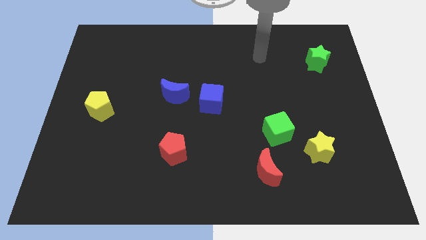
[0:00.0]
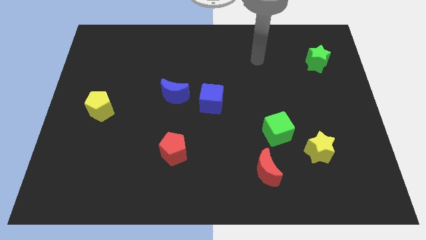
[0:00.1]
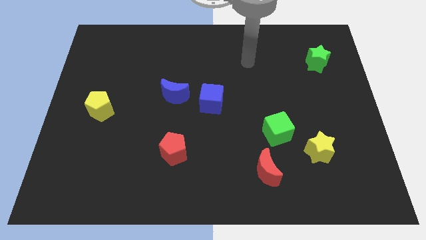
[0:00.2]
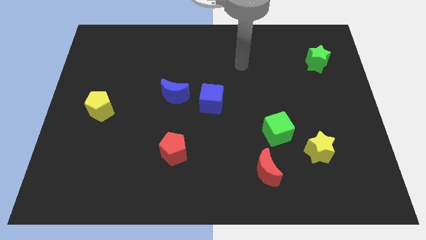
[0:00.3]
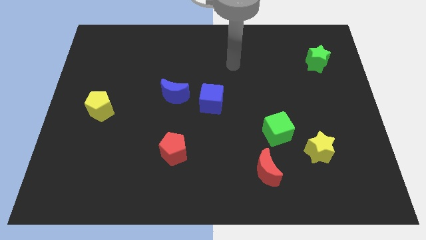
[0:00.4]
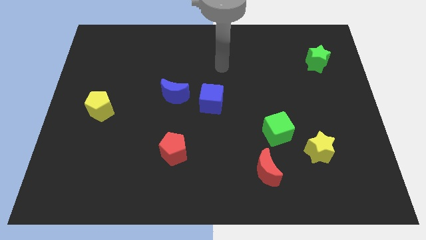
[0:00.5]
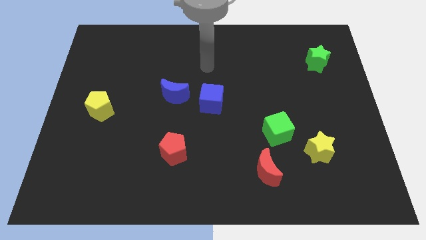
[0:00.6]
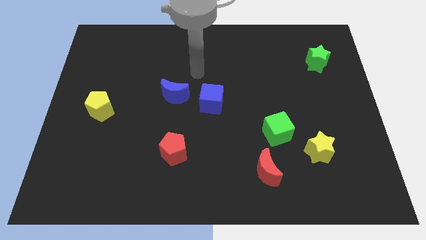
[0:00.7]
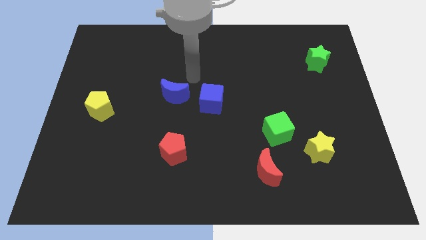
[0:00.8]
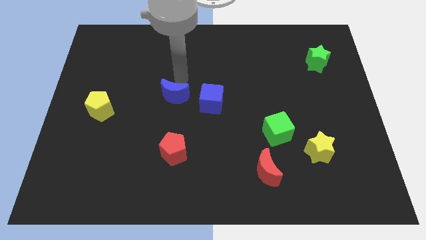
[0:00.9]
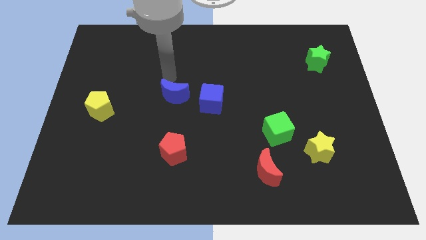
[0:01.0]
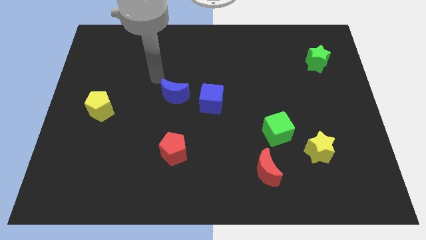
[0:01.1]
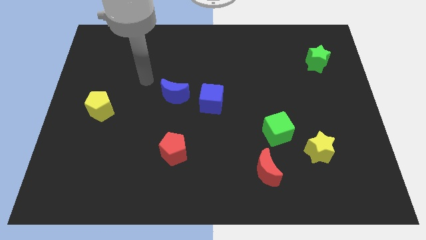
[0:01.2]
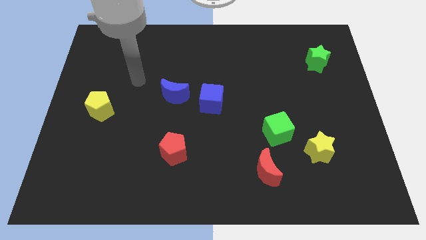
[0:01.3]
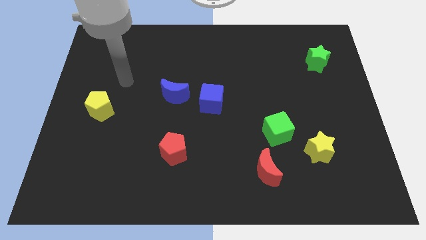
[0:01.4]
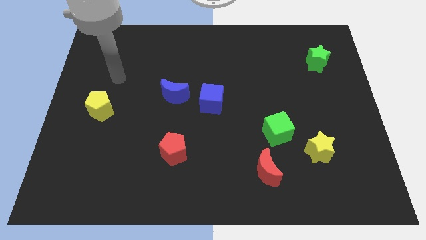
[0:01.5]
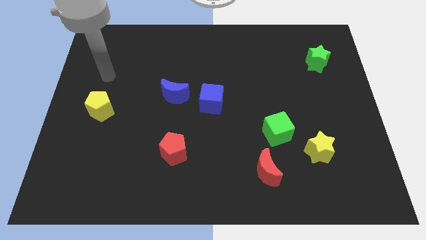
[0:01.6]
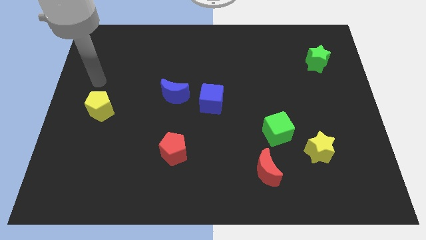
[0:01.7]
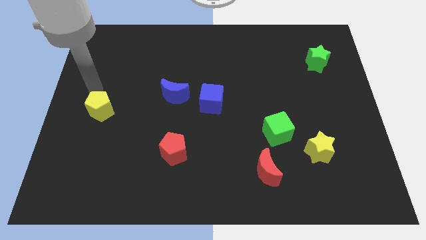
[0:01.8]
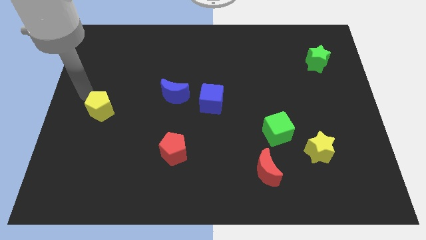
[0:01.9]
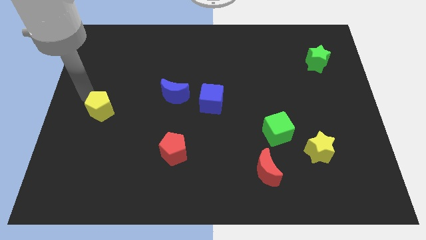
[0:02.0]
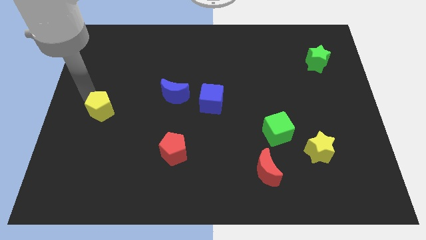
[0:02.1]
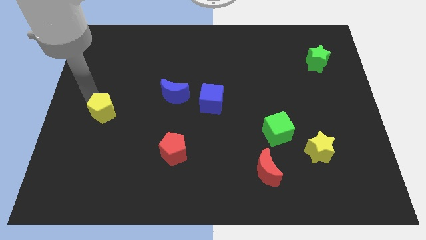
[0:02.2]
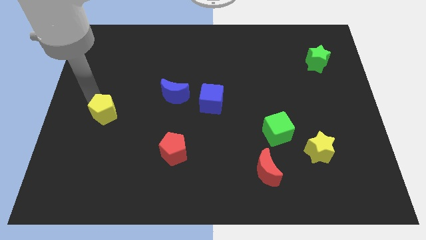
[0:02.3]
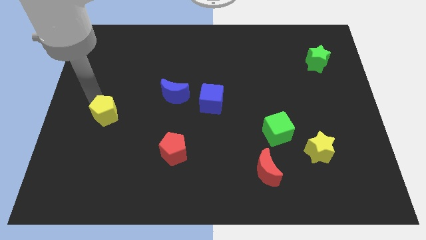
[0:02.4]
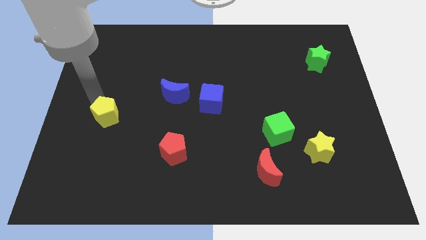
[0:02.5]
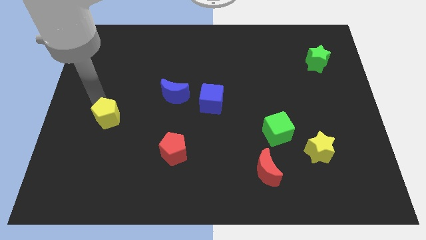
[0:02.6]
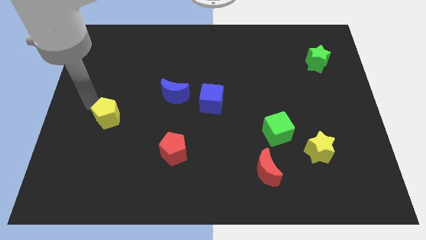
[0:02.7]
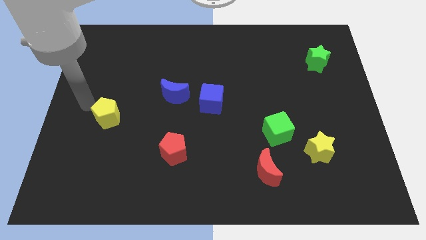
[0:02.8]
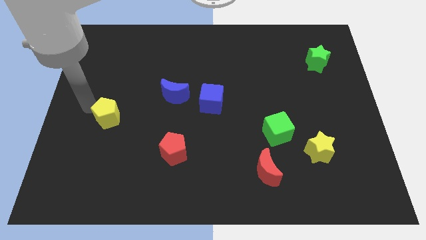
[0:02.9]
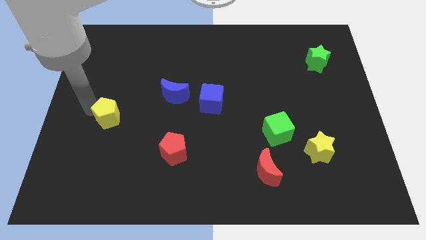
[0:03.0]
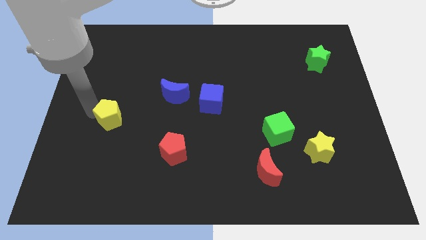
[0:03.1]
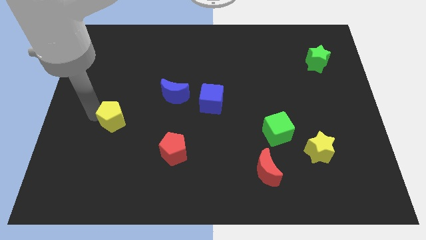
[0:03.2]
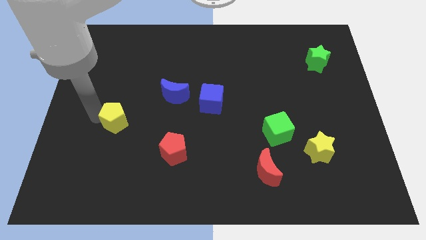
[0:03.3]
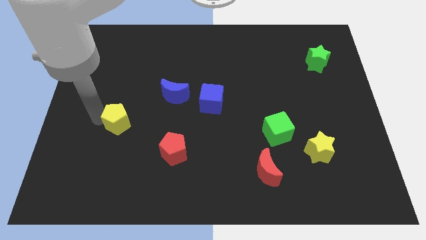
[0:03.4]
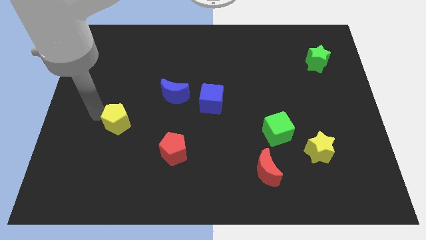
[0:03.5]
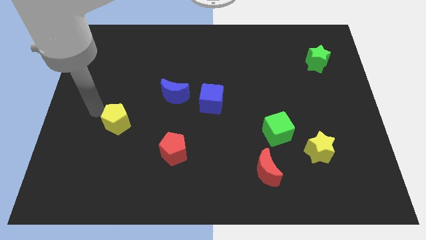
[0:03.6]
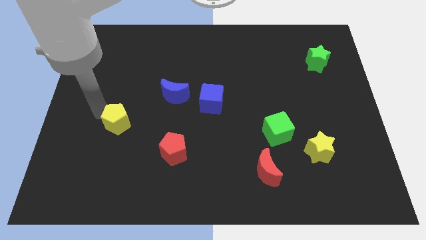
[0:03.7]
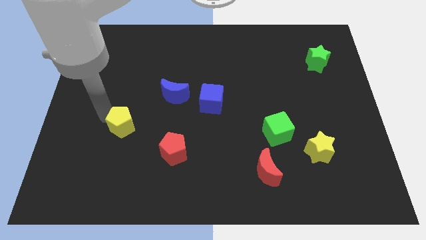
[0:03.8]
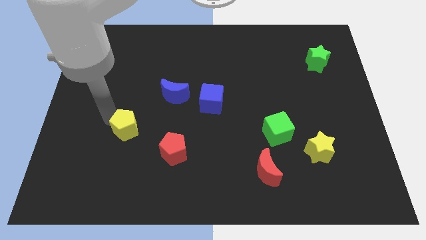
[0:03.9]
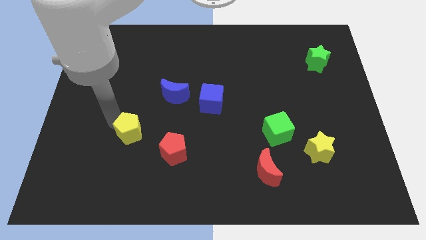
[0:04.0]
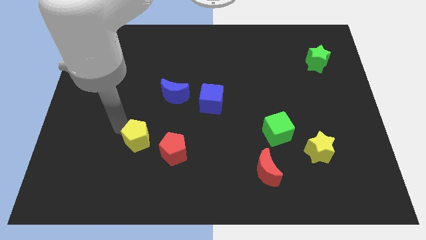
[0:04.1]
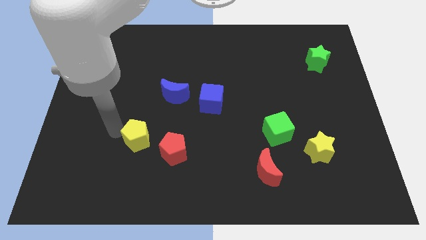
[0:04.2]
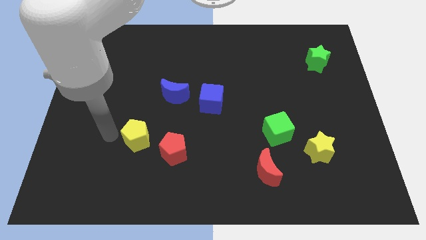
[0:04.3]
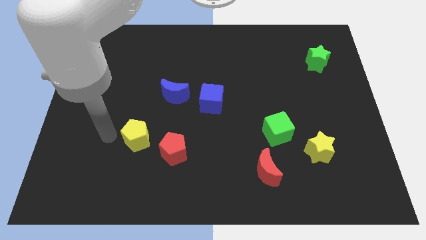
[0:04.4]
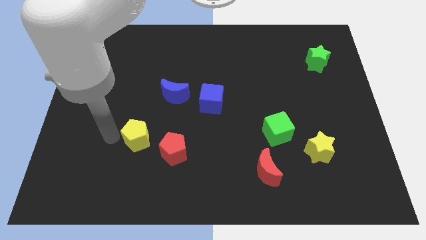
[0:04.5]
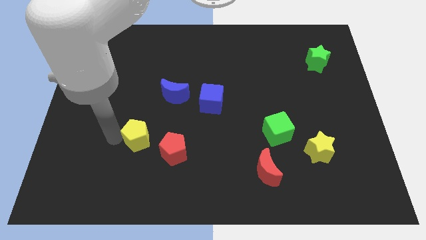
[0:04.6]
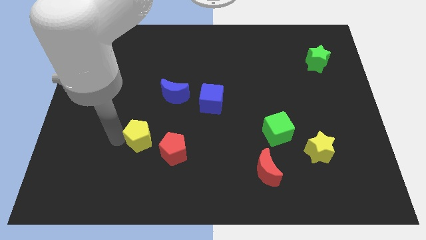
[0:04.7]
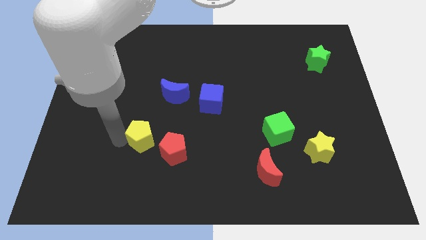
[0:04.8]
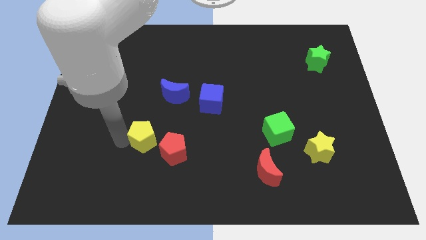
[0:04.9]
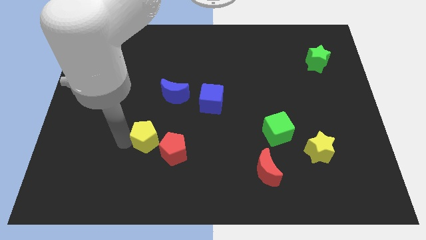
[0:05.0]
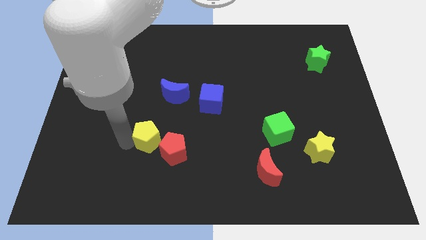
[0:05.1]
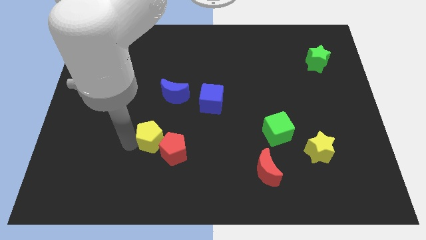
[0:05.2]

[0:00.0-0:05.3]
slide the yellow pentagon to the red pentagon

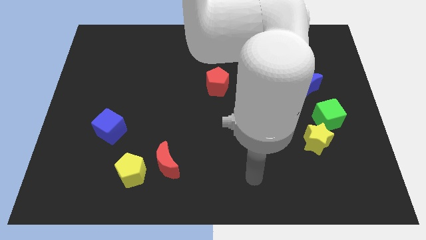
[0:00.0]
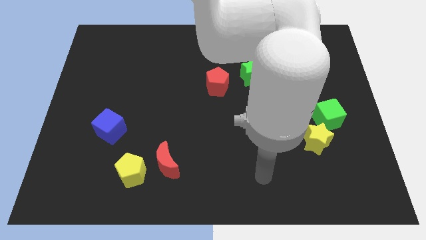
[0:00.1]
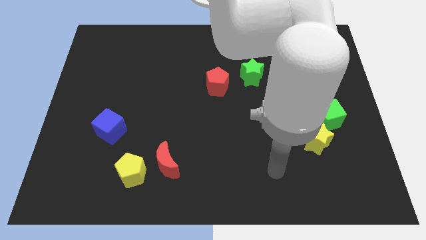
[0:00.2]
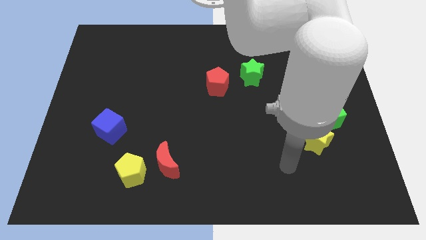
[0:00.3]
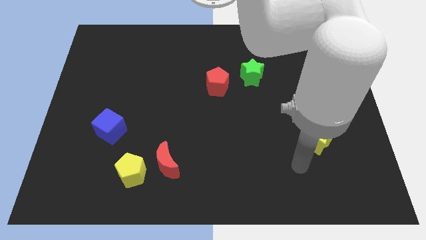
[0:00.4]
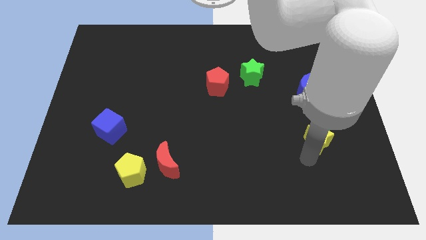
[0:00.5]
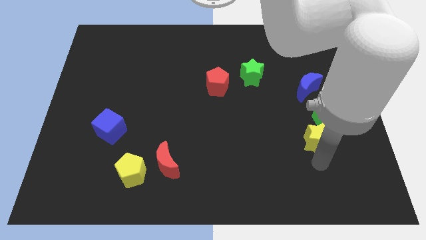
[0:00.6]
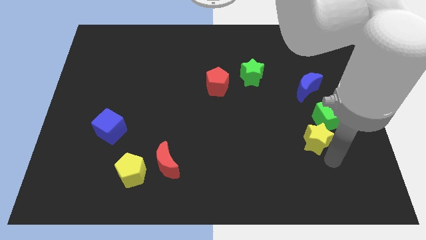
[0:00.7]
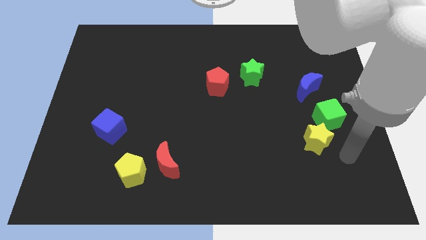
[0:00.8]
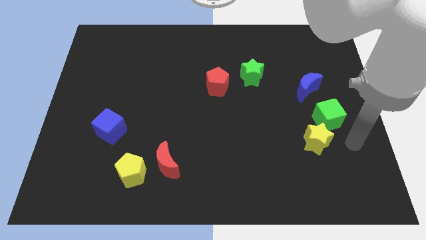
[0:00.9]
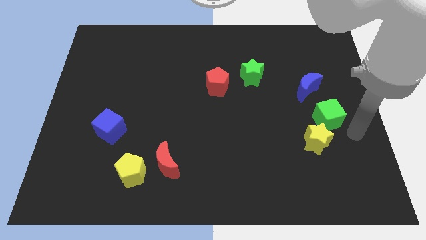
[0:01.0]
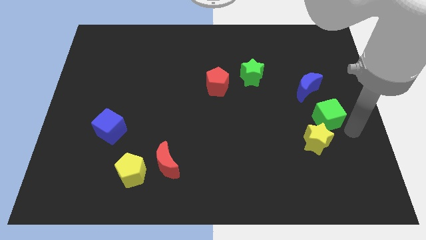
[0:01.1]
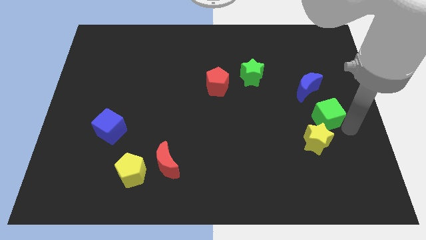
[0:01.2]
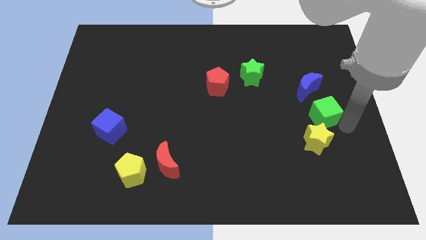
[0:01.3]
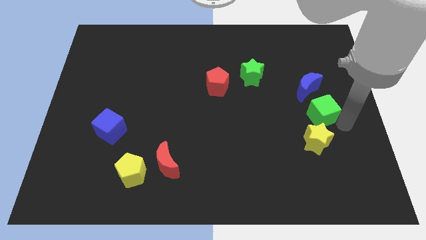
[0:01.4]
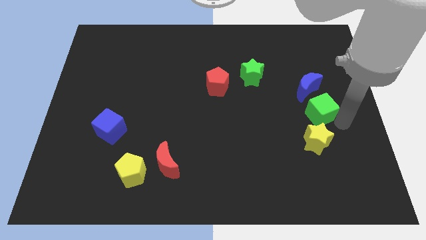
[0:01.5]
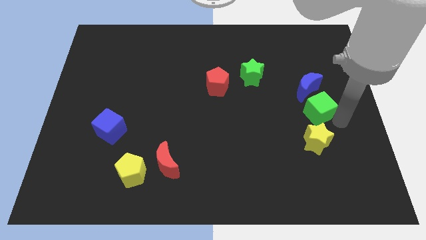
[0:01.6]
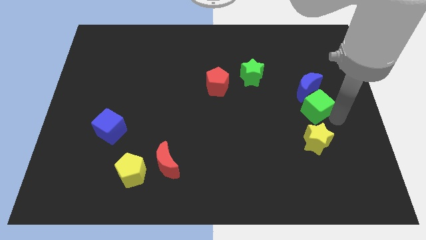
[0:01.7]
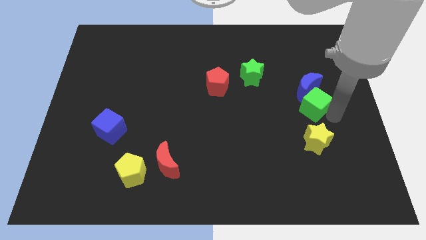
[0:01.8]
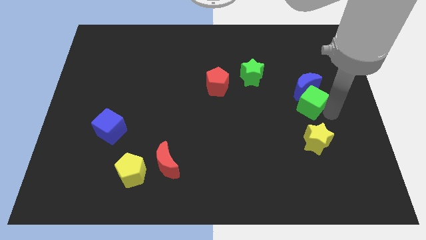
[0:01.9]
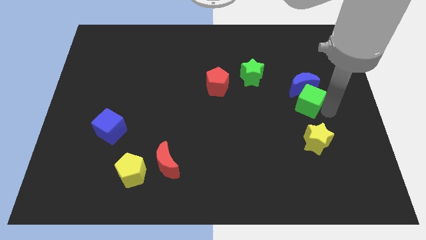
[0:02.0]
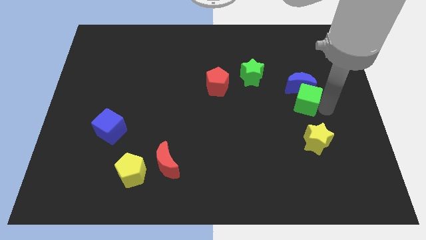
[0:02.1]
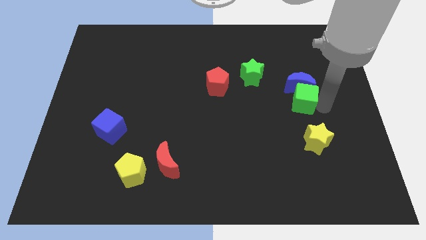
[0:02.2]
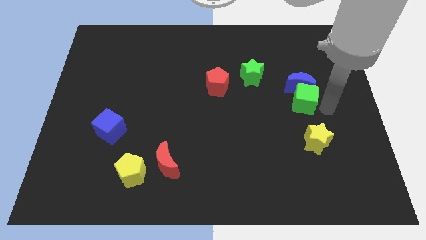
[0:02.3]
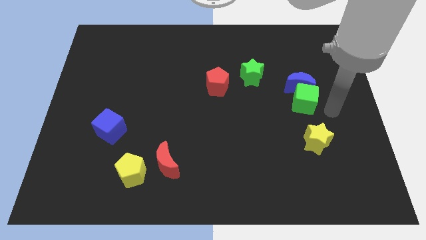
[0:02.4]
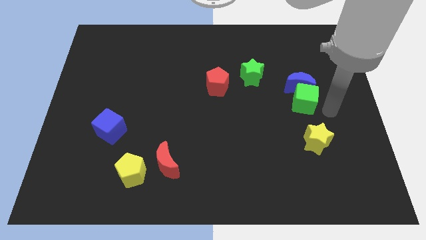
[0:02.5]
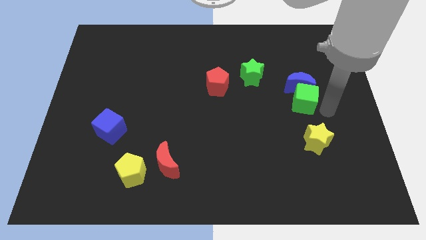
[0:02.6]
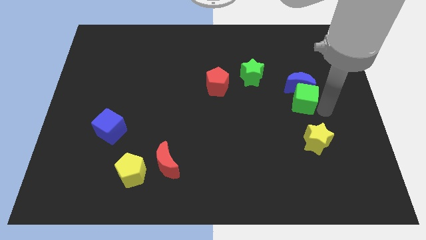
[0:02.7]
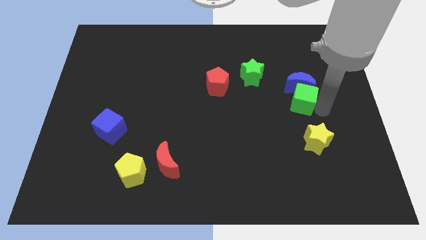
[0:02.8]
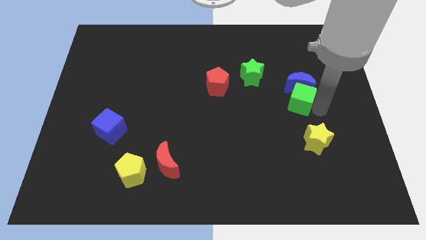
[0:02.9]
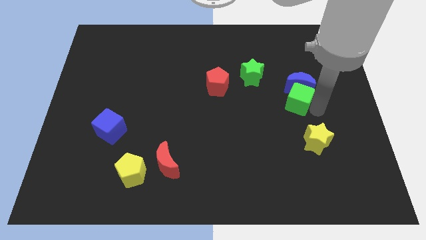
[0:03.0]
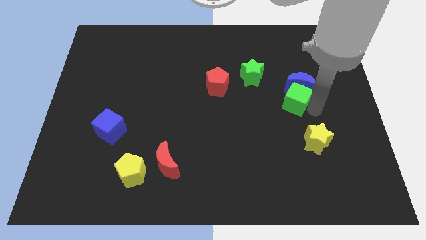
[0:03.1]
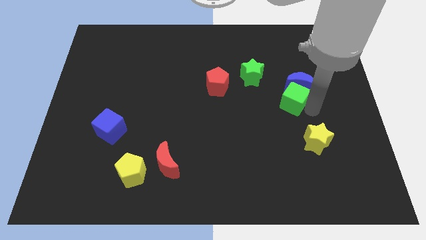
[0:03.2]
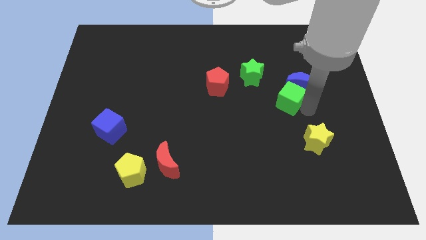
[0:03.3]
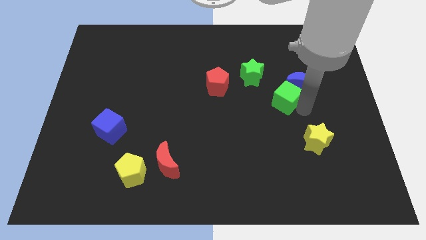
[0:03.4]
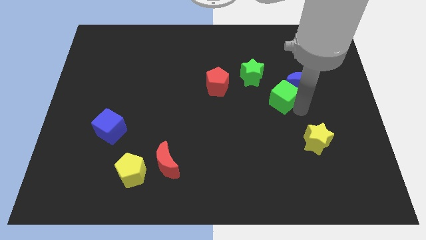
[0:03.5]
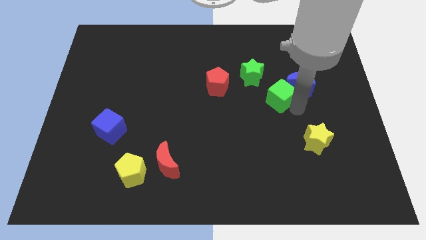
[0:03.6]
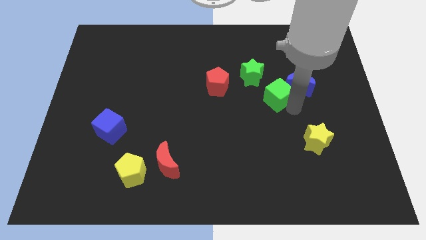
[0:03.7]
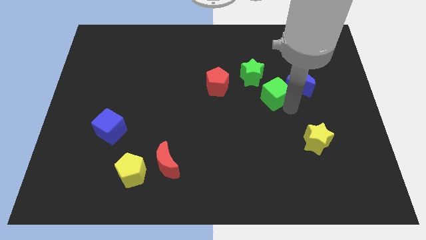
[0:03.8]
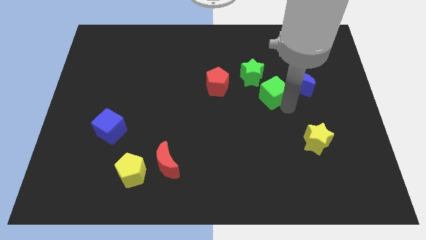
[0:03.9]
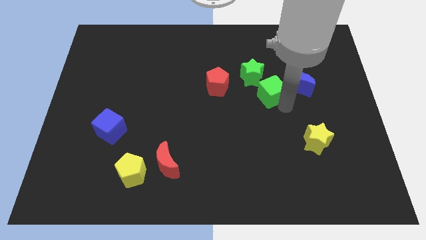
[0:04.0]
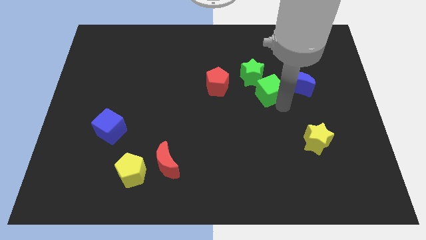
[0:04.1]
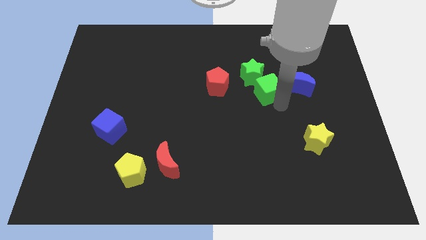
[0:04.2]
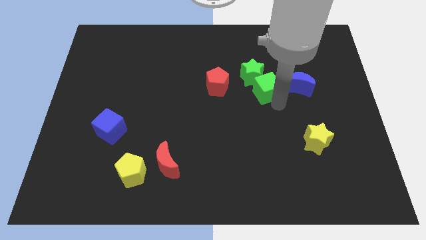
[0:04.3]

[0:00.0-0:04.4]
put the green cube towards the green star
